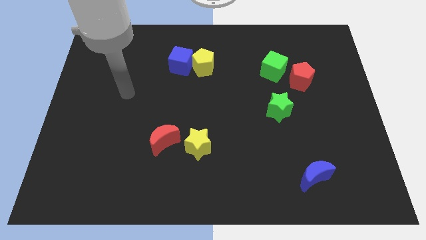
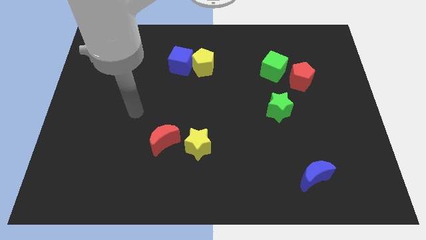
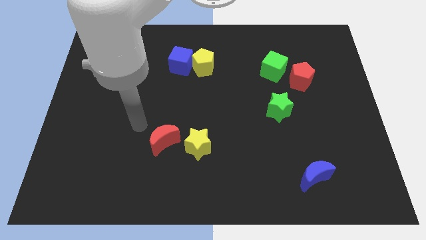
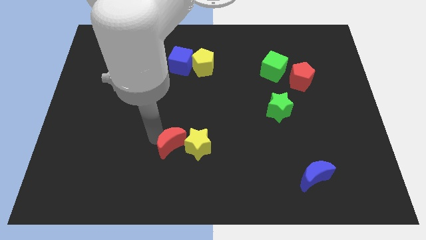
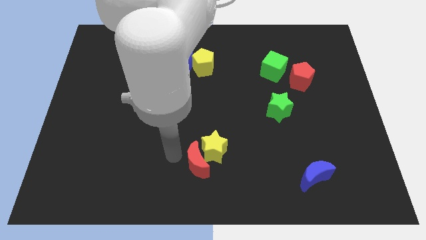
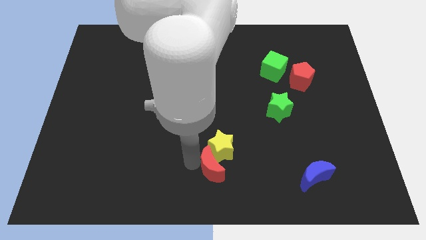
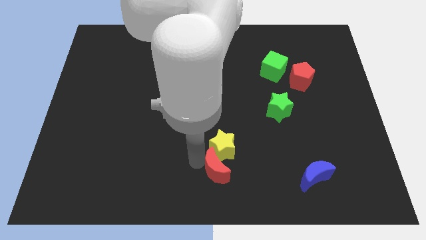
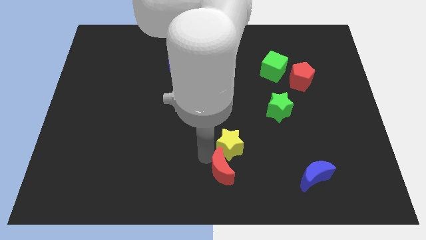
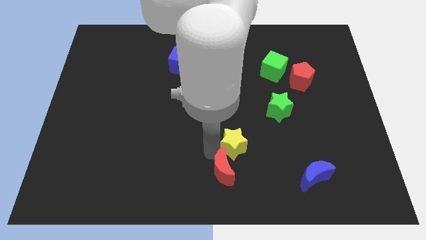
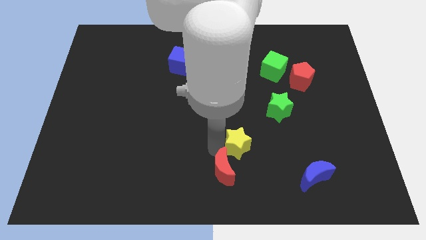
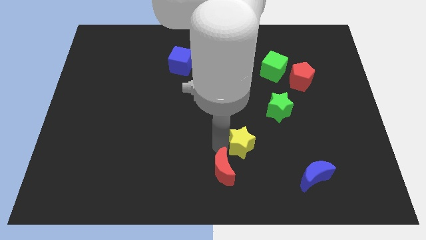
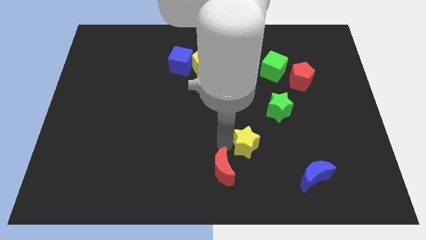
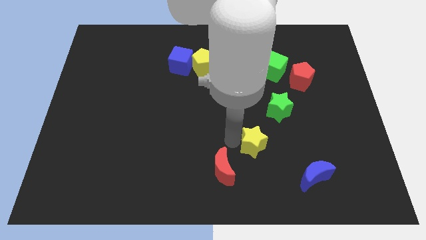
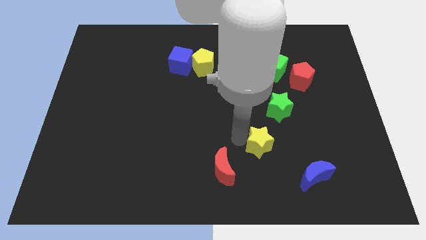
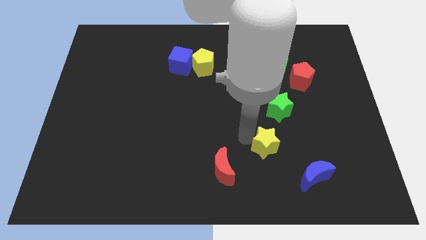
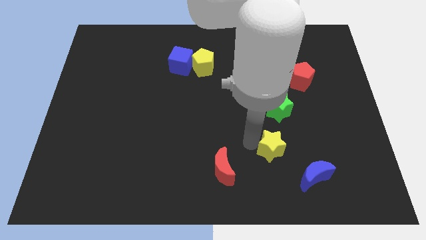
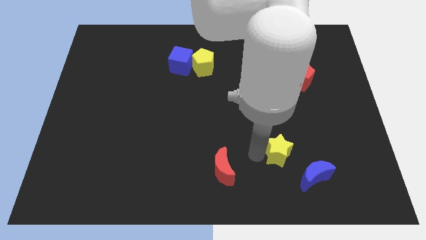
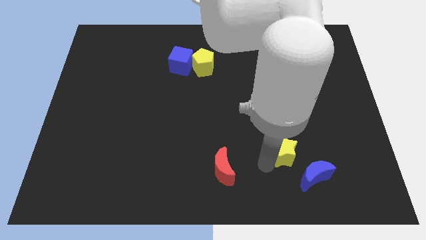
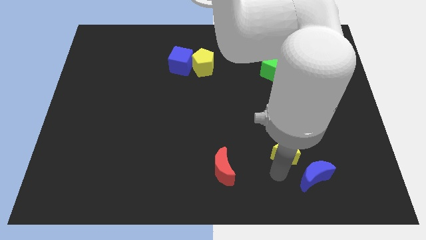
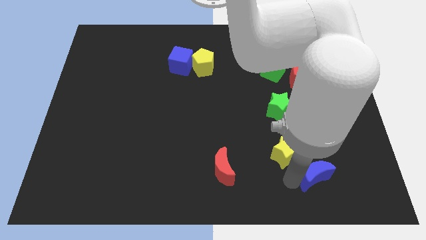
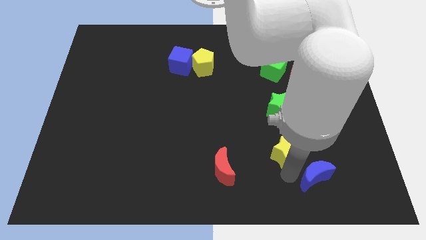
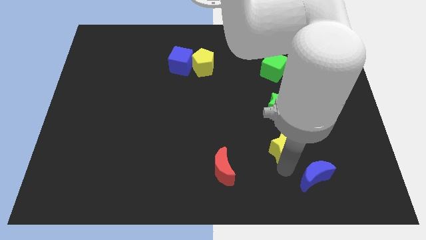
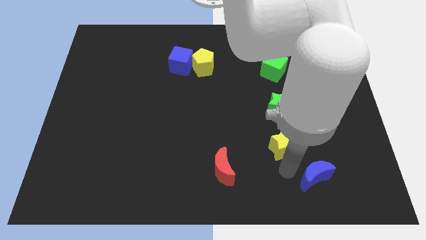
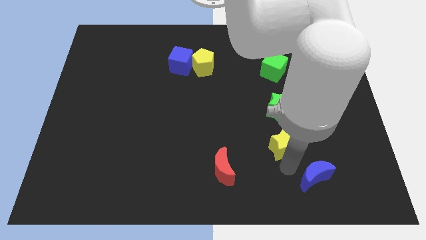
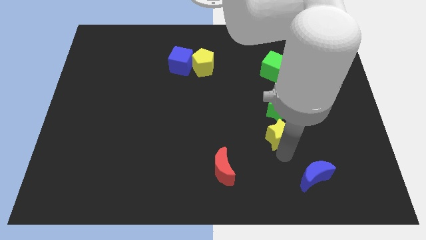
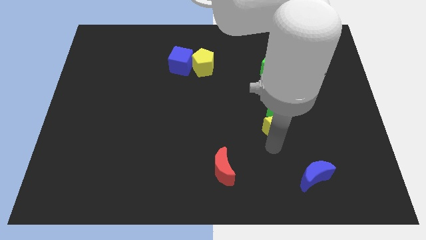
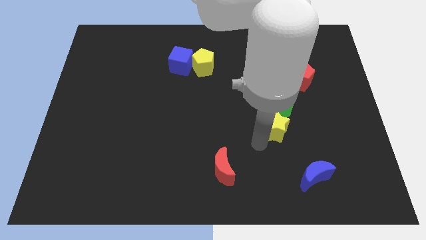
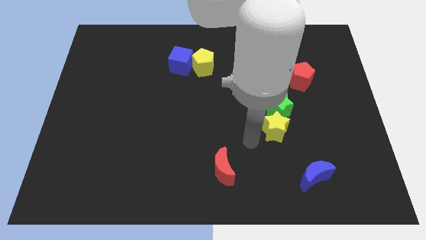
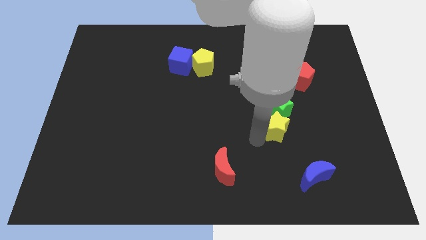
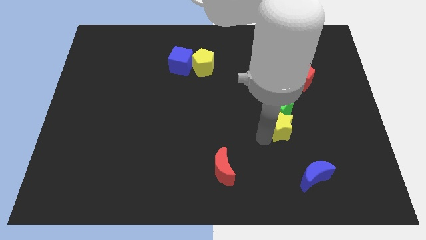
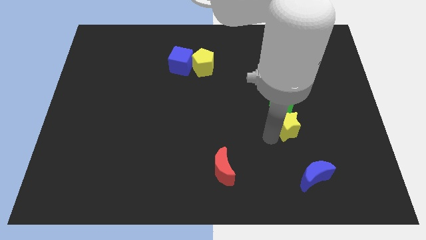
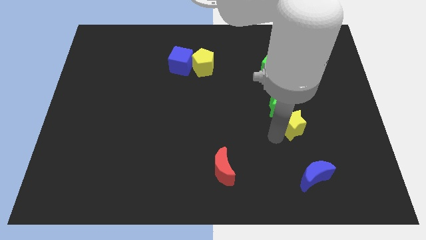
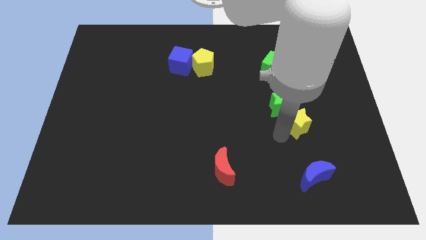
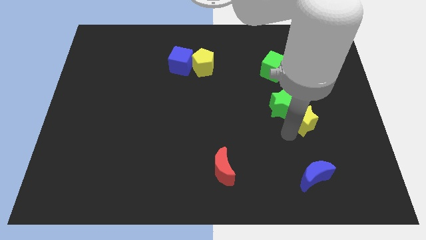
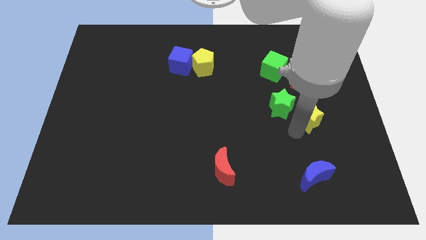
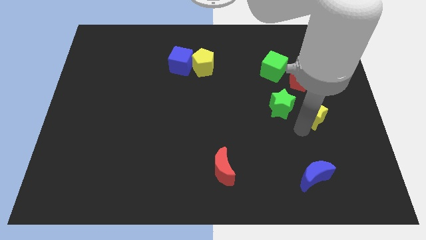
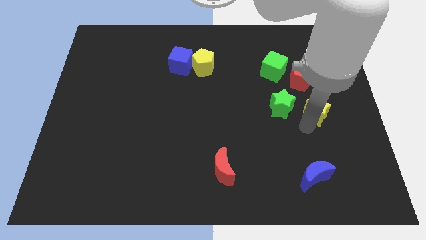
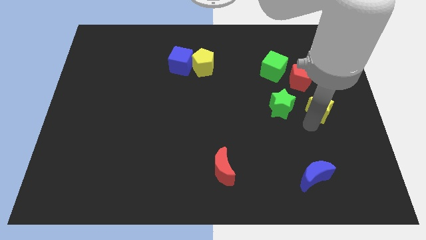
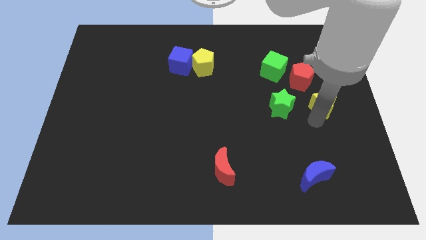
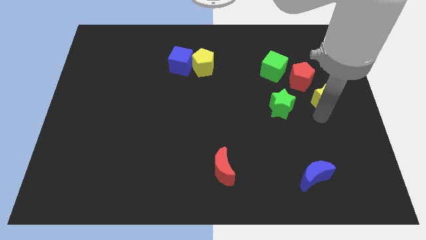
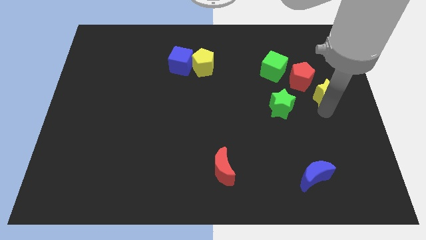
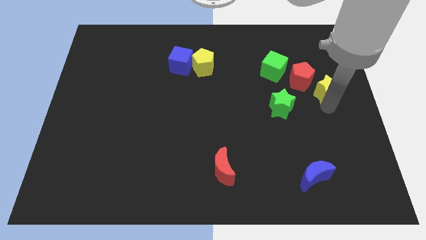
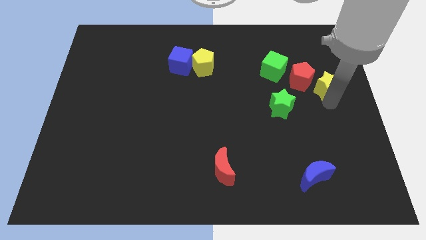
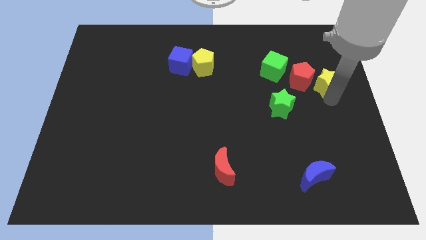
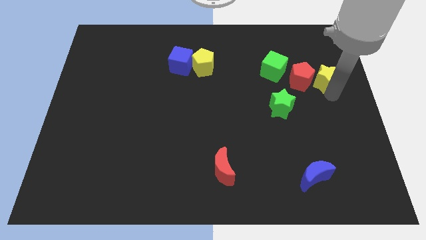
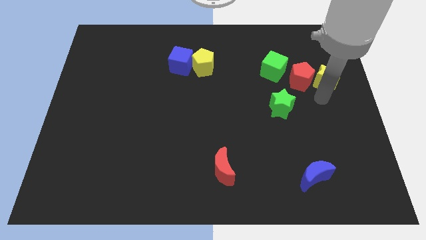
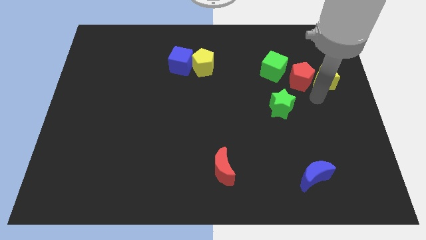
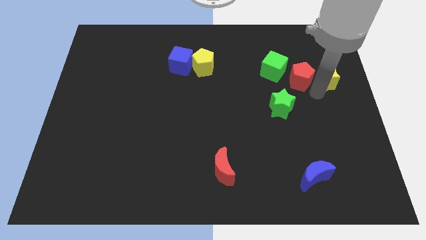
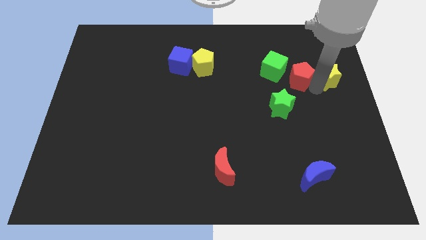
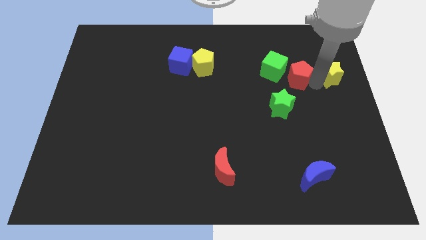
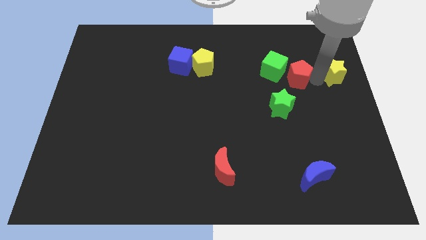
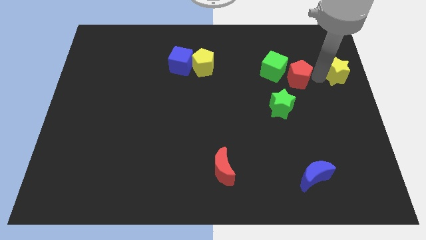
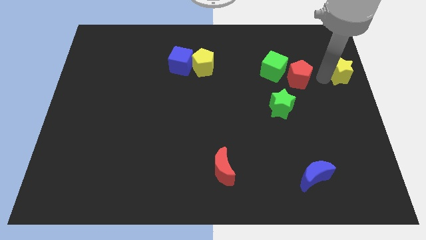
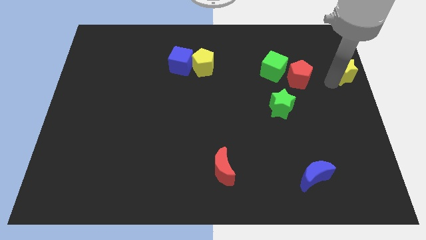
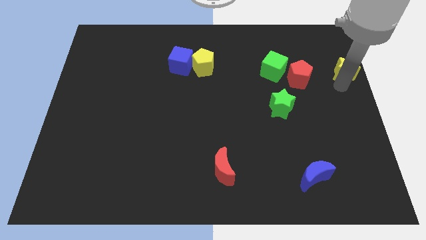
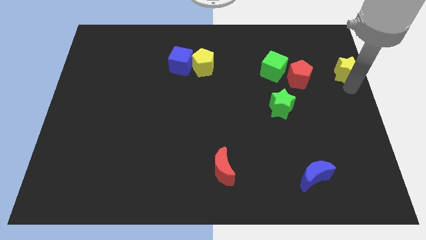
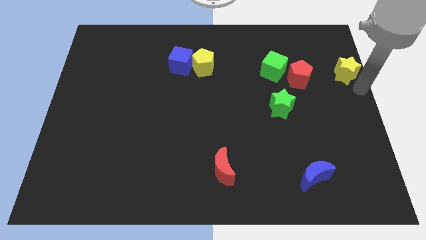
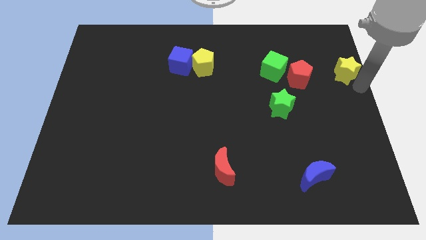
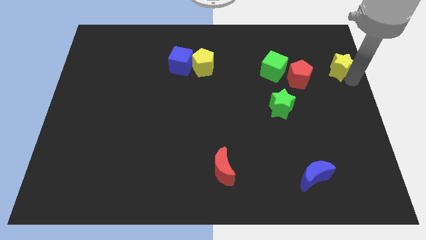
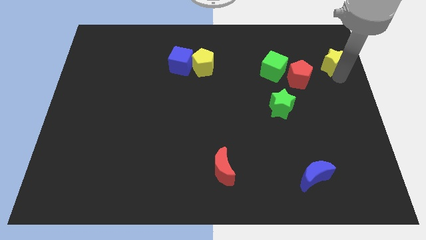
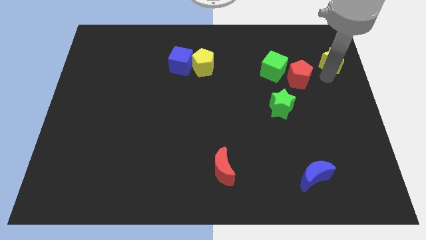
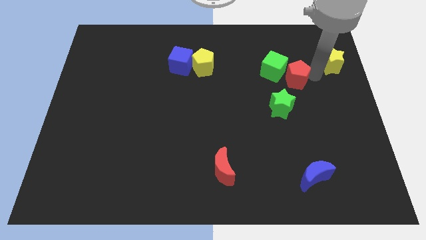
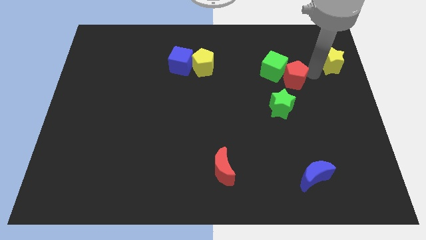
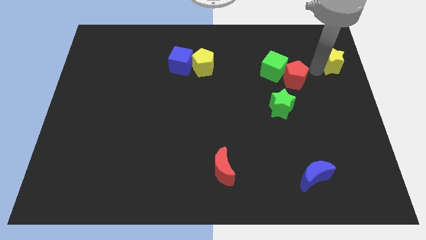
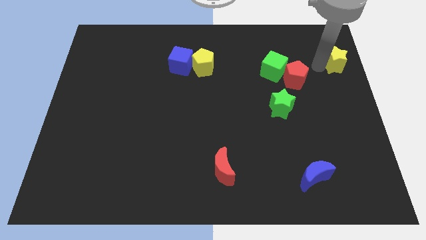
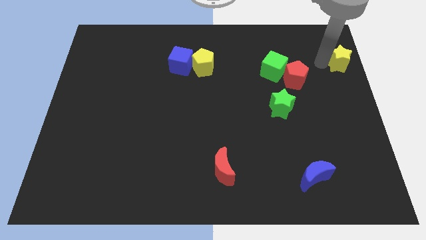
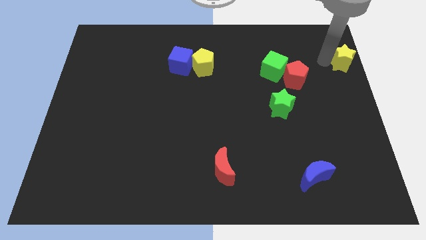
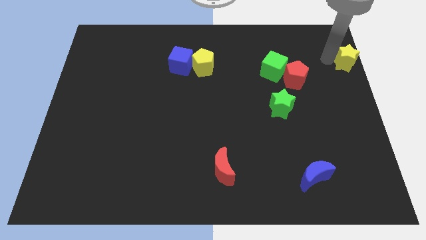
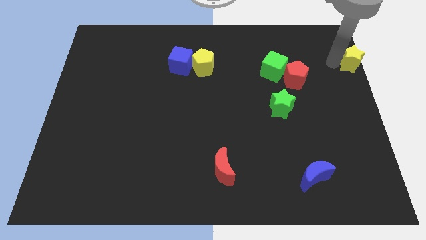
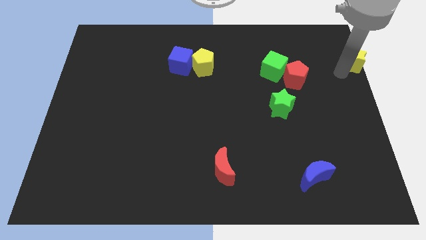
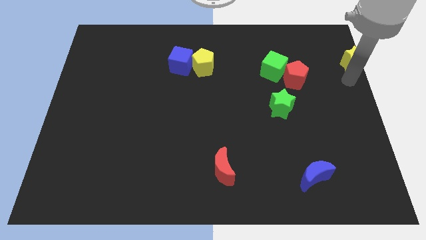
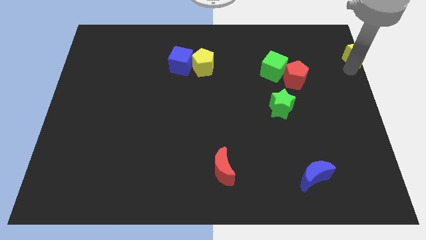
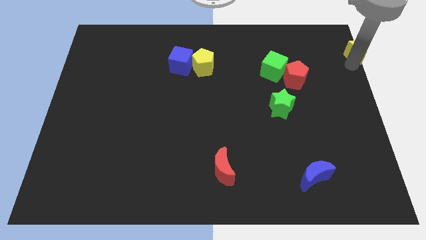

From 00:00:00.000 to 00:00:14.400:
move the yellow star to the upper right corner

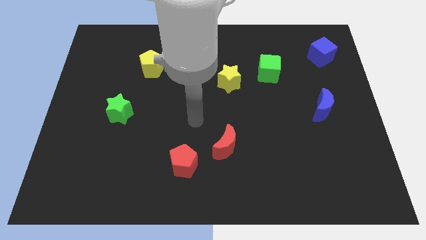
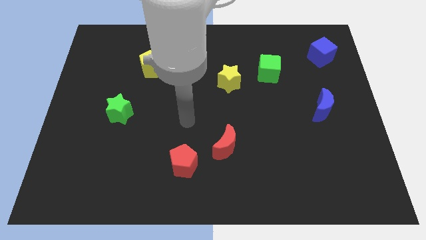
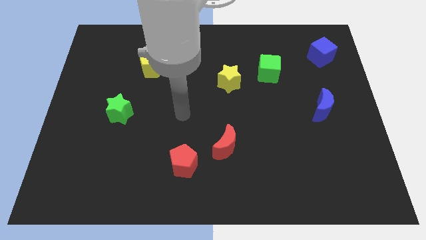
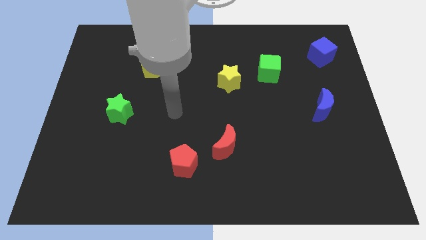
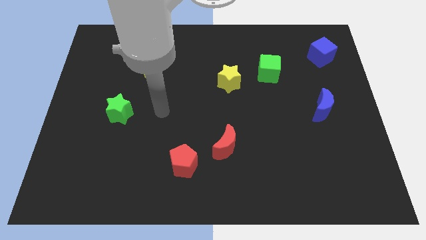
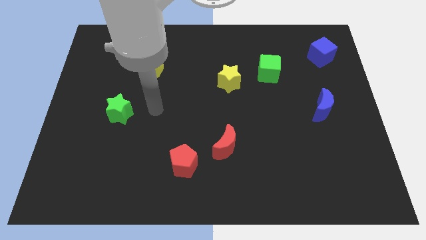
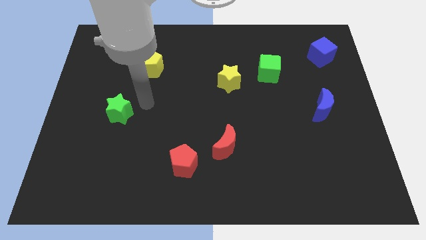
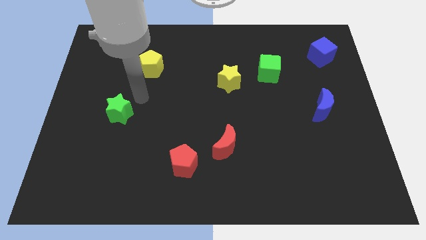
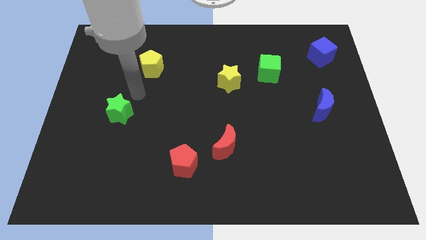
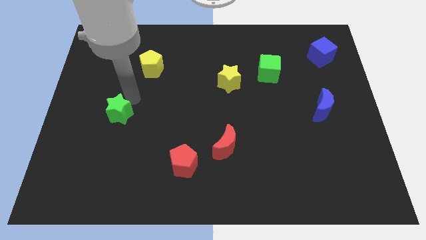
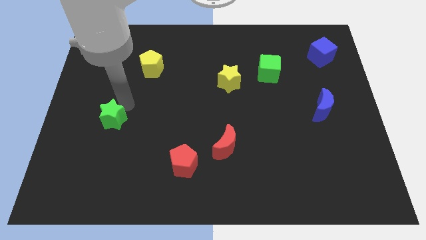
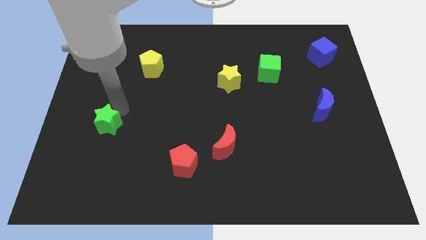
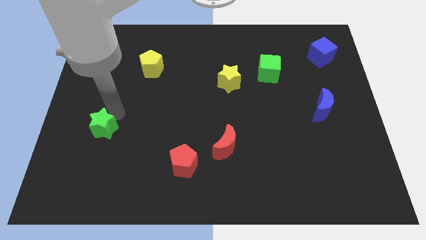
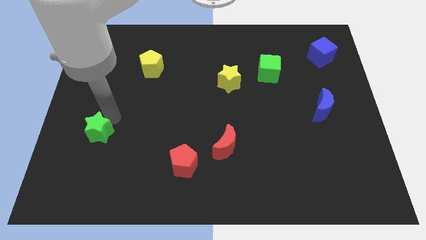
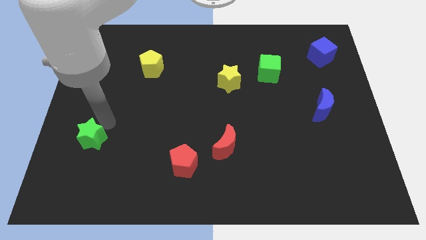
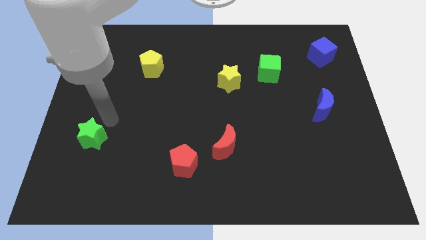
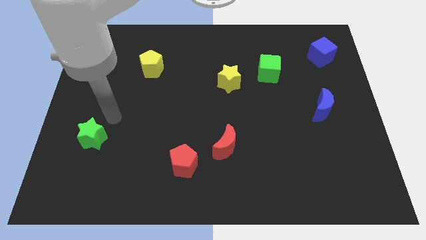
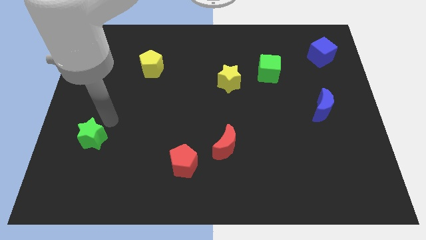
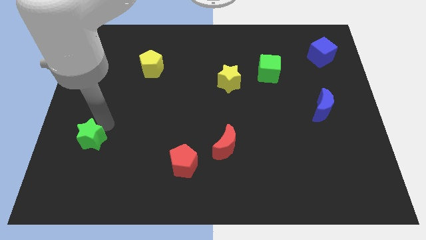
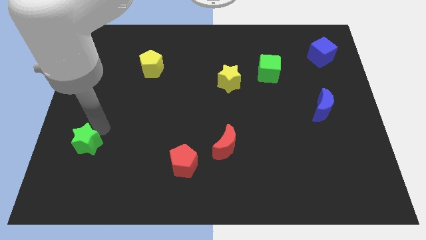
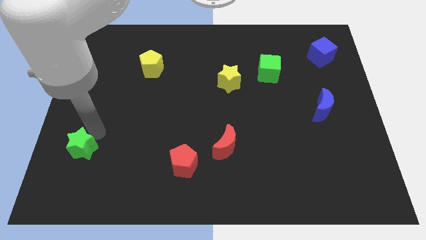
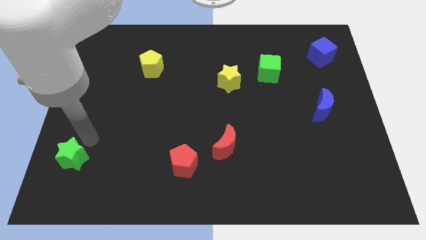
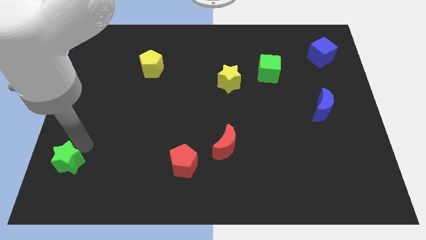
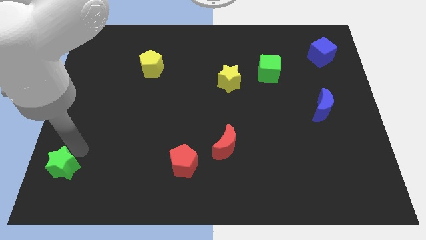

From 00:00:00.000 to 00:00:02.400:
put the green star to the bottom left corner
